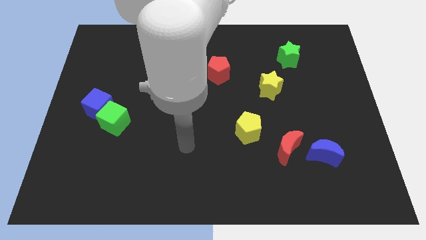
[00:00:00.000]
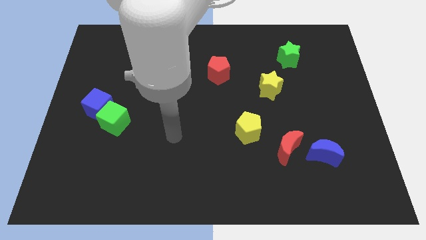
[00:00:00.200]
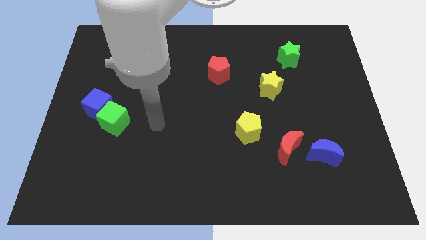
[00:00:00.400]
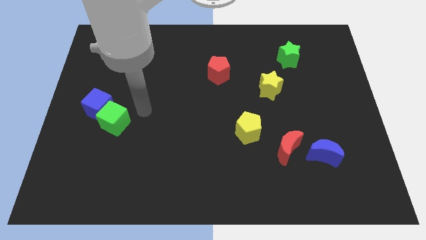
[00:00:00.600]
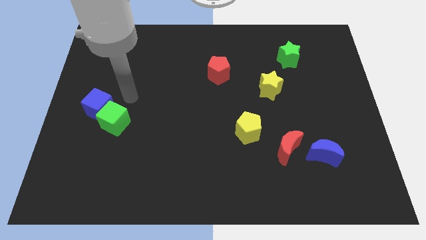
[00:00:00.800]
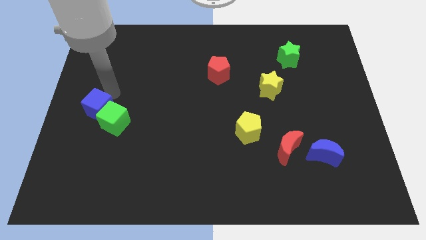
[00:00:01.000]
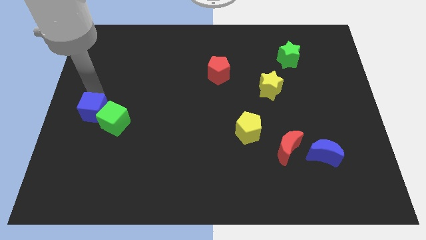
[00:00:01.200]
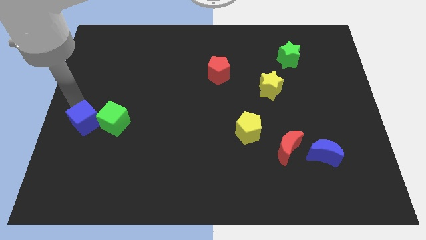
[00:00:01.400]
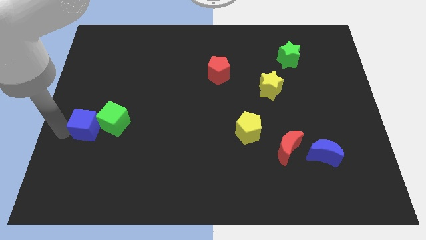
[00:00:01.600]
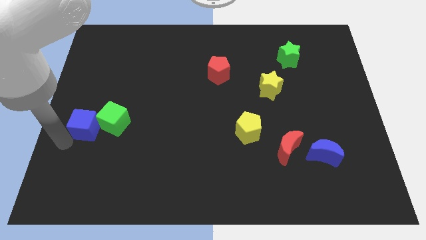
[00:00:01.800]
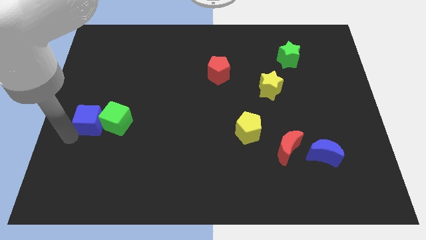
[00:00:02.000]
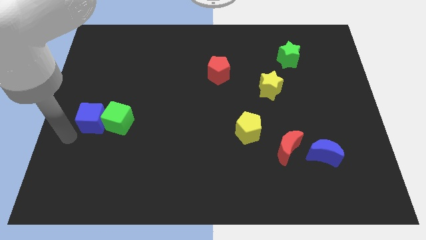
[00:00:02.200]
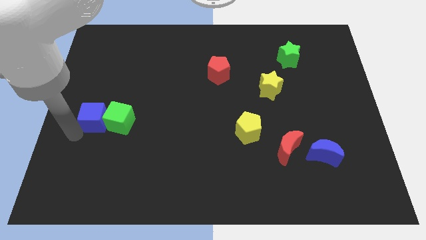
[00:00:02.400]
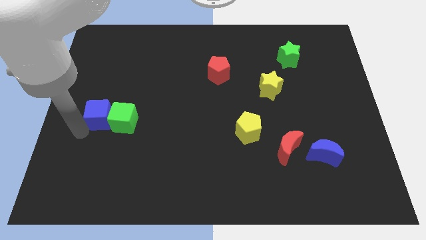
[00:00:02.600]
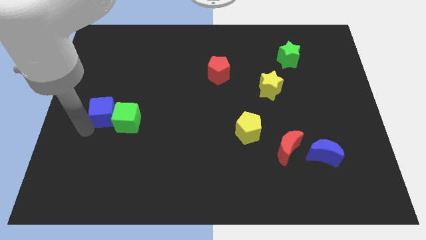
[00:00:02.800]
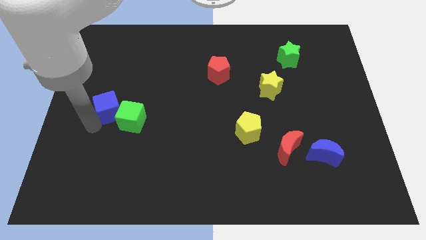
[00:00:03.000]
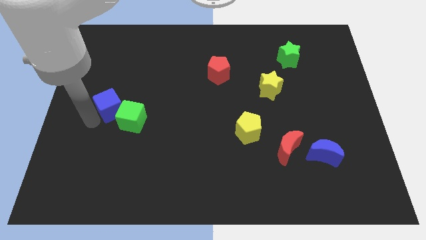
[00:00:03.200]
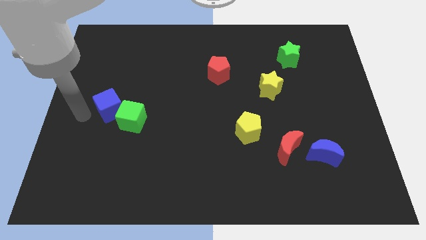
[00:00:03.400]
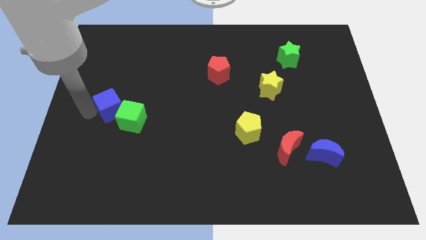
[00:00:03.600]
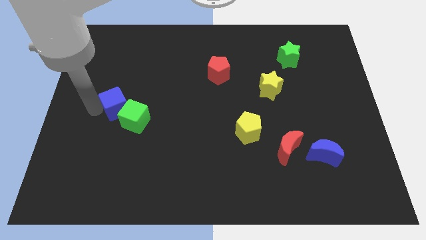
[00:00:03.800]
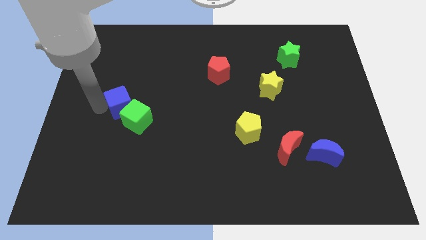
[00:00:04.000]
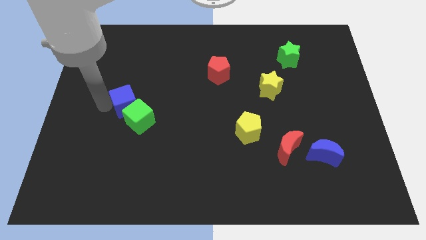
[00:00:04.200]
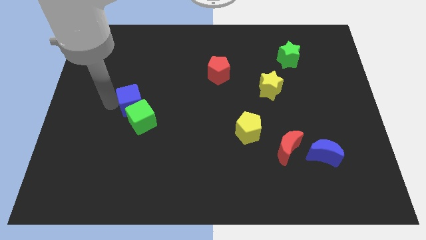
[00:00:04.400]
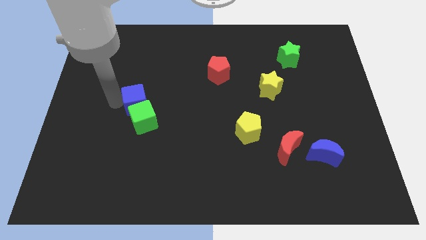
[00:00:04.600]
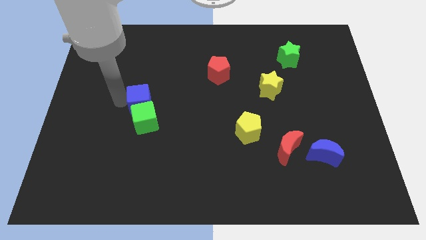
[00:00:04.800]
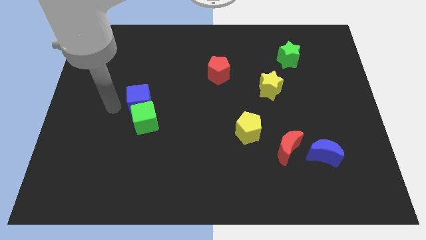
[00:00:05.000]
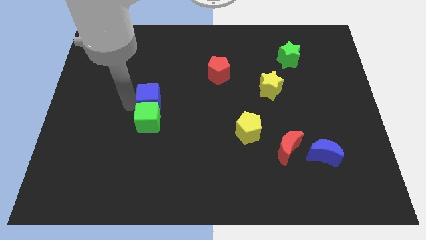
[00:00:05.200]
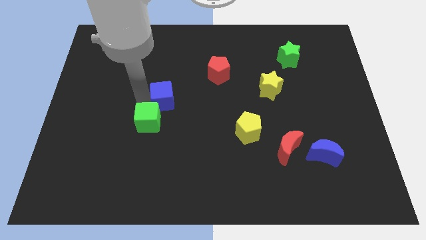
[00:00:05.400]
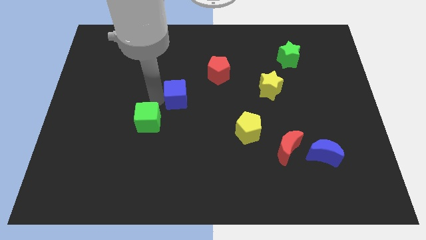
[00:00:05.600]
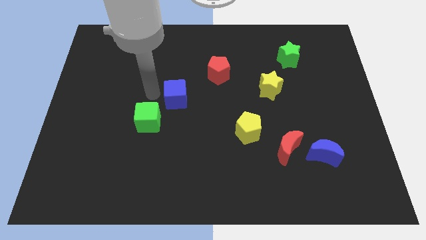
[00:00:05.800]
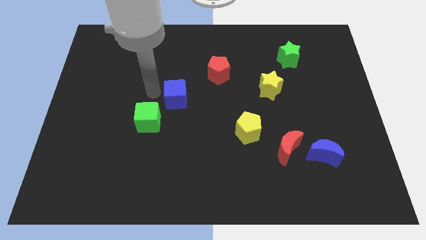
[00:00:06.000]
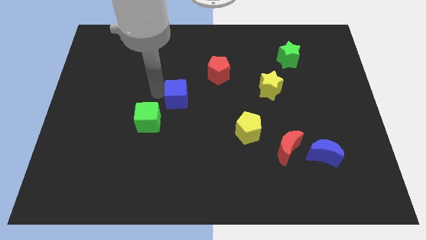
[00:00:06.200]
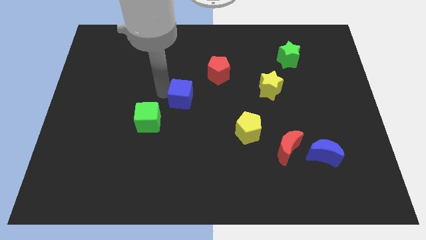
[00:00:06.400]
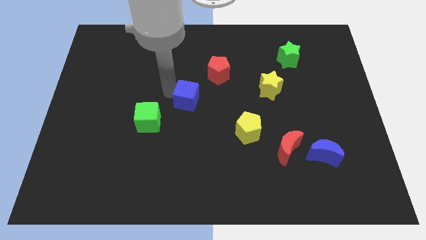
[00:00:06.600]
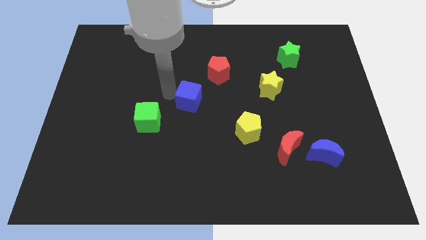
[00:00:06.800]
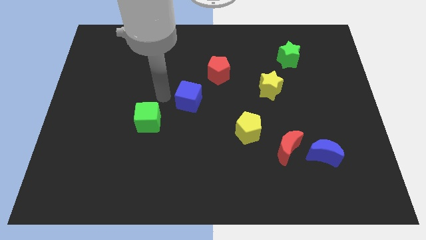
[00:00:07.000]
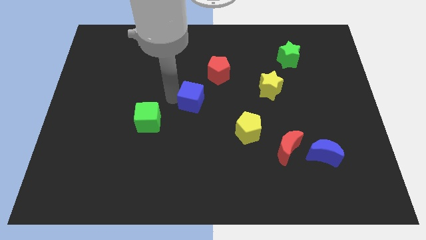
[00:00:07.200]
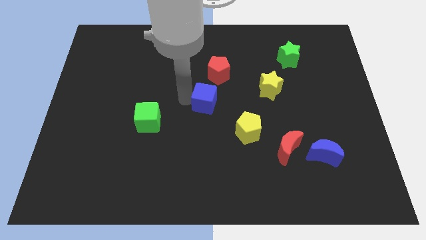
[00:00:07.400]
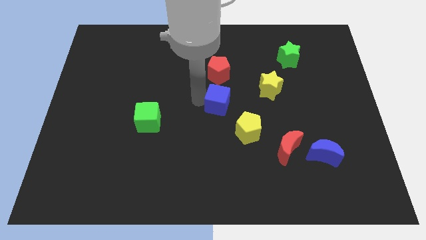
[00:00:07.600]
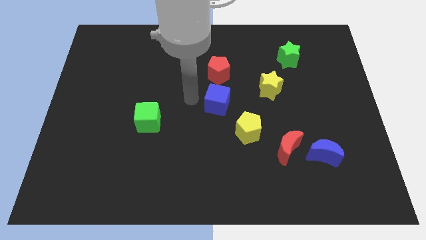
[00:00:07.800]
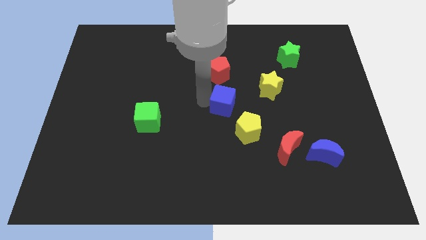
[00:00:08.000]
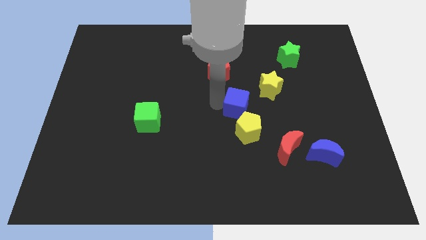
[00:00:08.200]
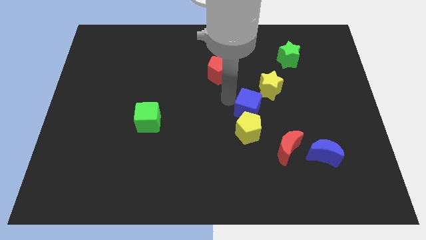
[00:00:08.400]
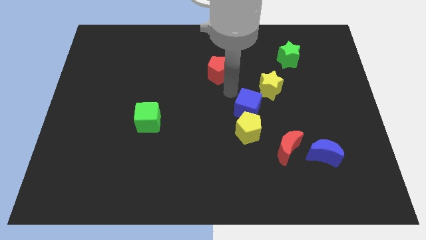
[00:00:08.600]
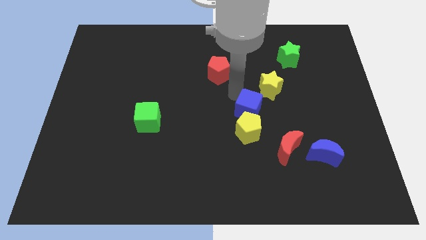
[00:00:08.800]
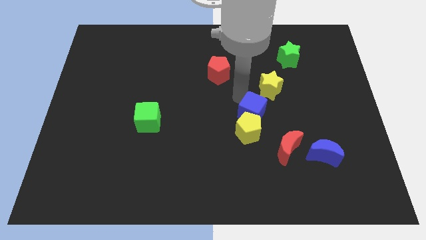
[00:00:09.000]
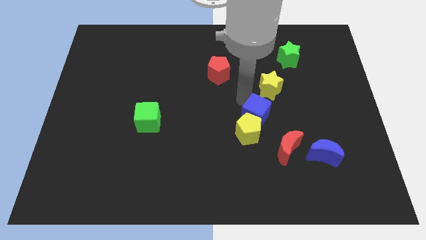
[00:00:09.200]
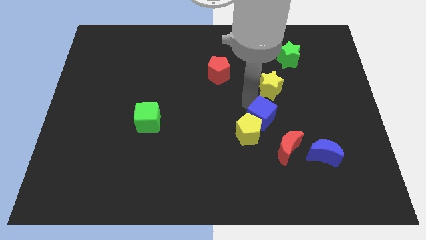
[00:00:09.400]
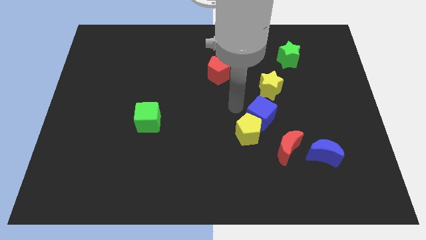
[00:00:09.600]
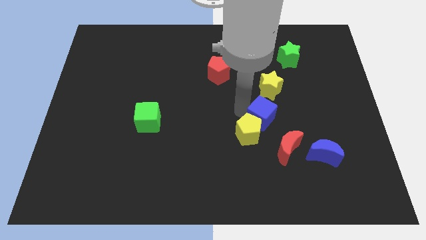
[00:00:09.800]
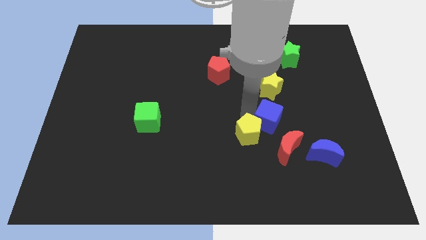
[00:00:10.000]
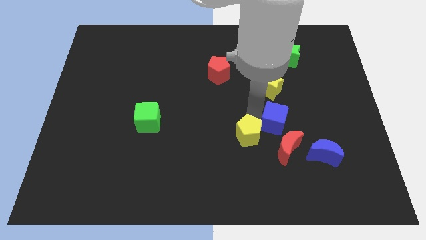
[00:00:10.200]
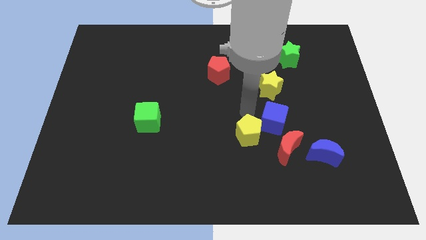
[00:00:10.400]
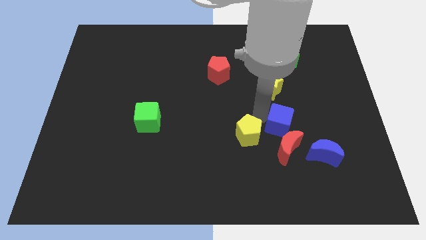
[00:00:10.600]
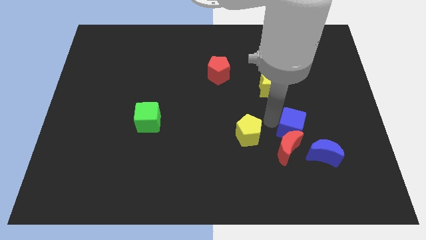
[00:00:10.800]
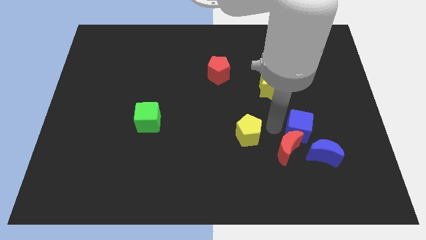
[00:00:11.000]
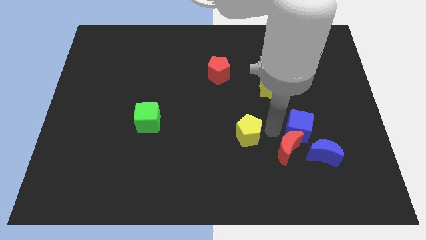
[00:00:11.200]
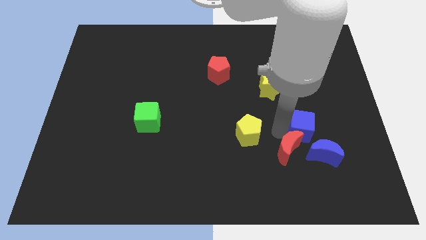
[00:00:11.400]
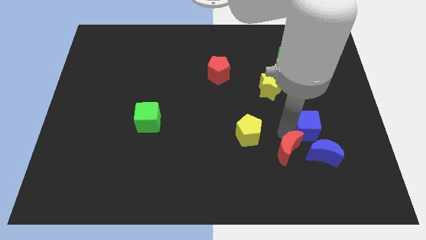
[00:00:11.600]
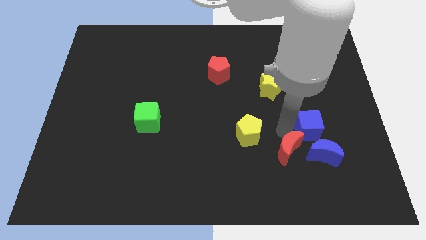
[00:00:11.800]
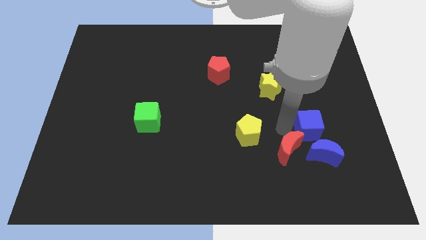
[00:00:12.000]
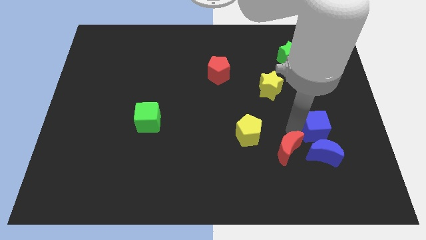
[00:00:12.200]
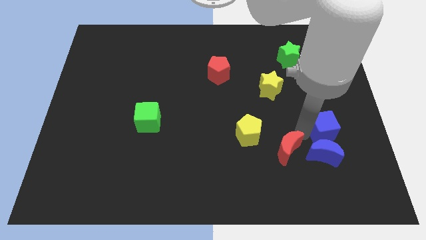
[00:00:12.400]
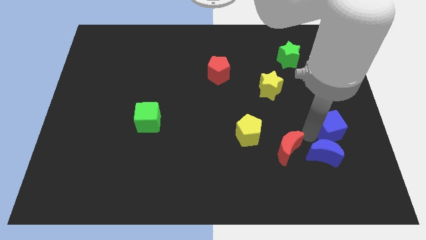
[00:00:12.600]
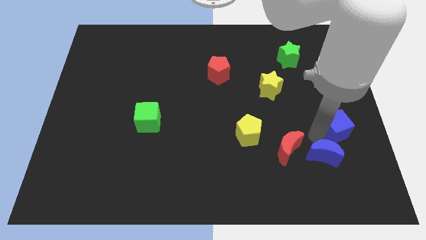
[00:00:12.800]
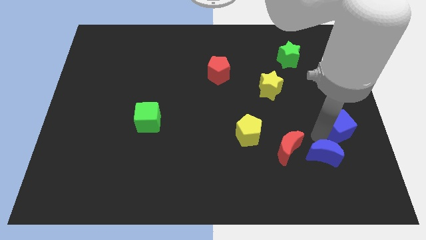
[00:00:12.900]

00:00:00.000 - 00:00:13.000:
slide the blue cube to the right side of the board
